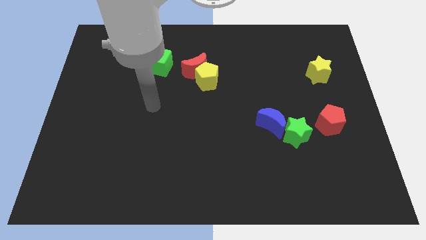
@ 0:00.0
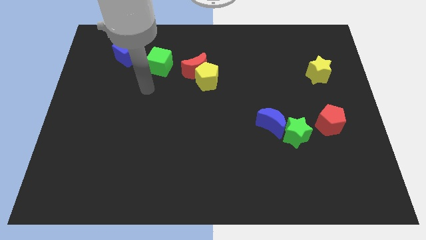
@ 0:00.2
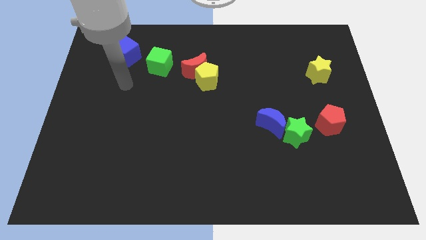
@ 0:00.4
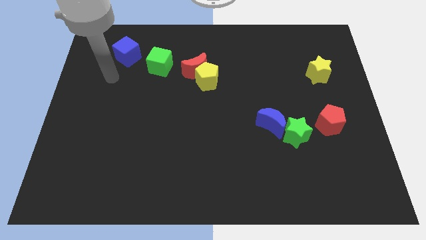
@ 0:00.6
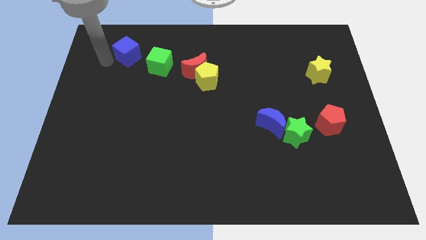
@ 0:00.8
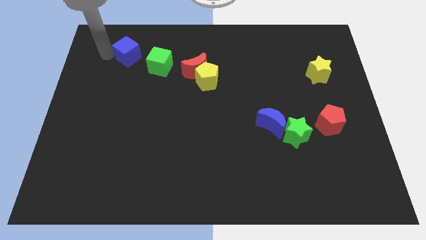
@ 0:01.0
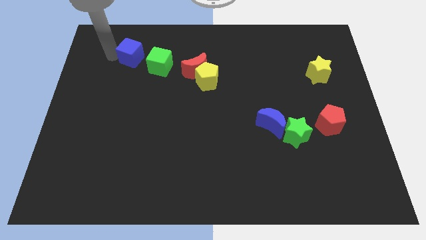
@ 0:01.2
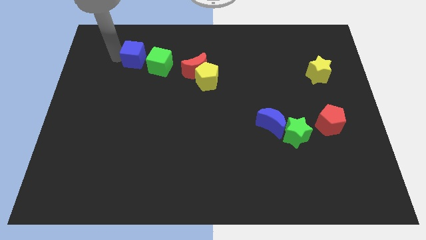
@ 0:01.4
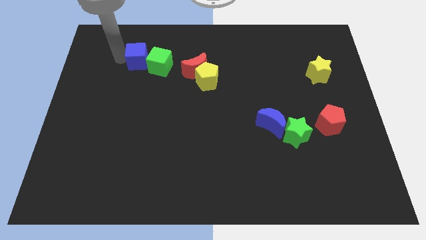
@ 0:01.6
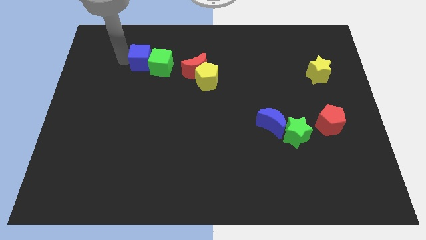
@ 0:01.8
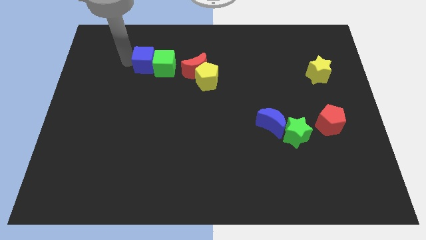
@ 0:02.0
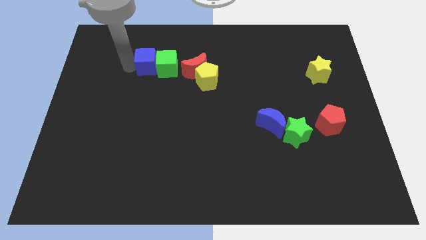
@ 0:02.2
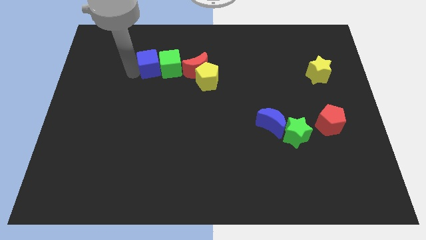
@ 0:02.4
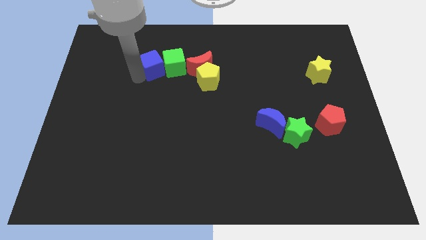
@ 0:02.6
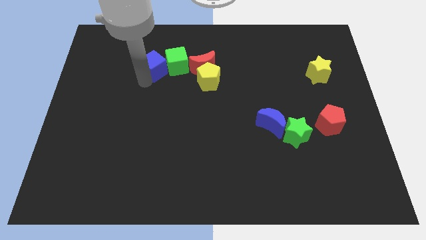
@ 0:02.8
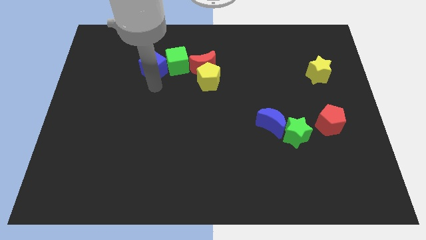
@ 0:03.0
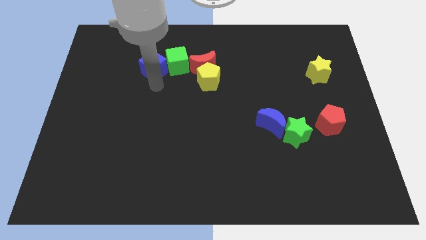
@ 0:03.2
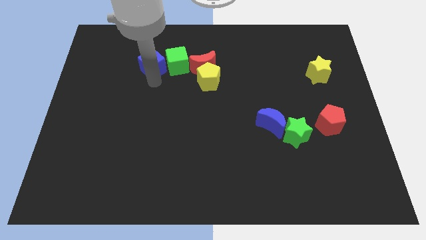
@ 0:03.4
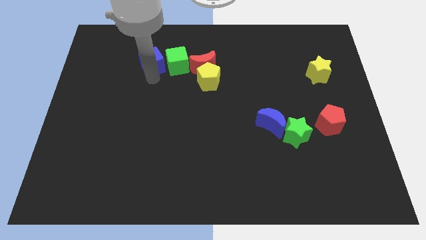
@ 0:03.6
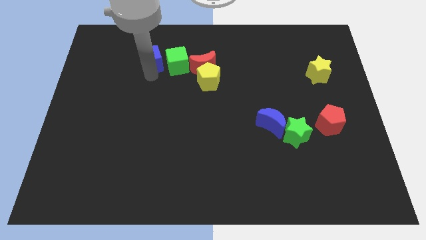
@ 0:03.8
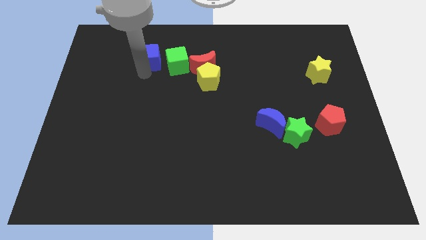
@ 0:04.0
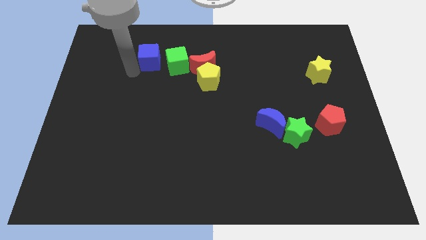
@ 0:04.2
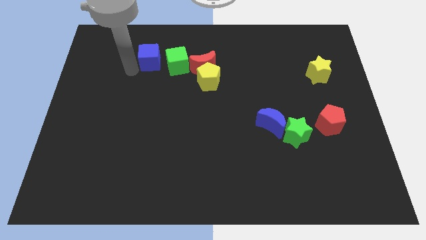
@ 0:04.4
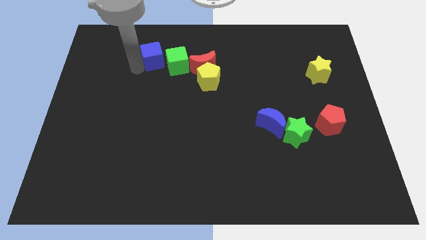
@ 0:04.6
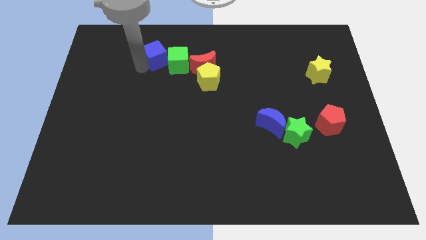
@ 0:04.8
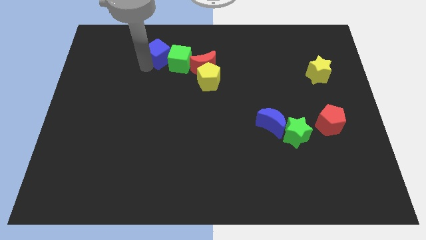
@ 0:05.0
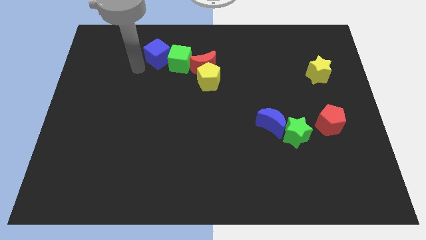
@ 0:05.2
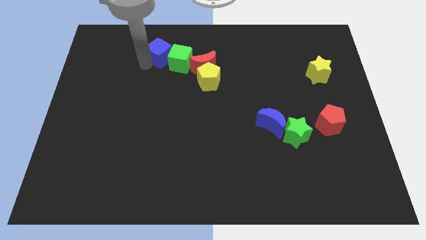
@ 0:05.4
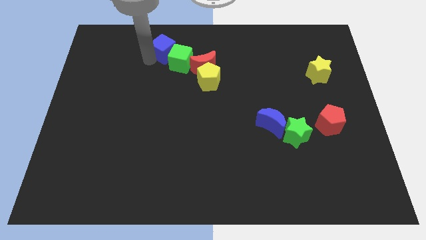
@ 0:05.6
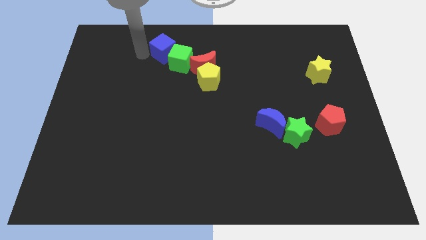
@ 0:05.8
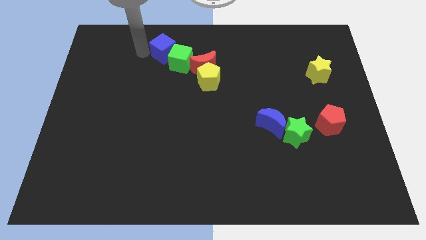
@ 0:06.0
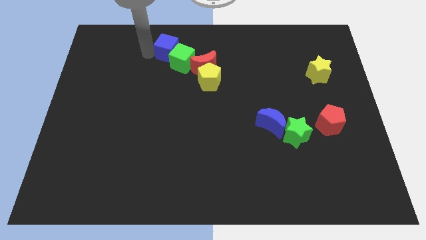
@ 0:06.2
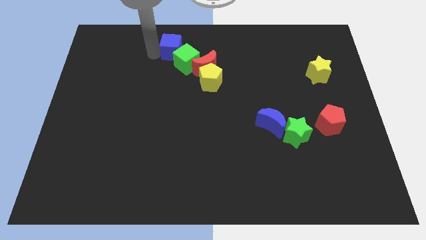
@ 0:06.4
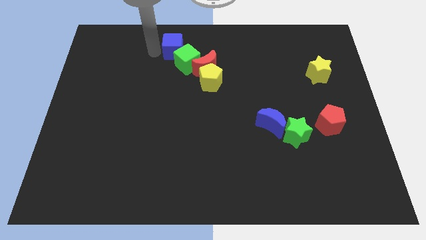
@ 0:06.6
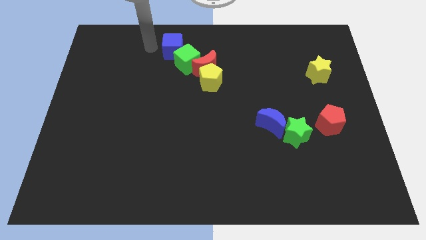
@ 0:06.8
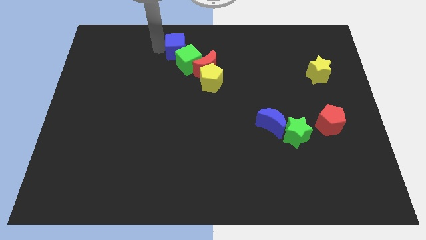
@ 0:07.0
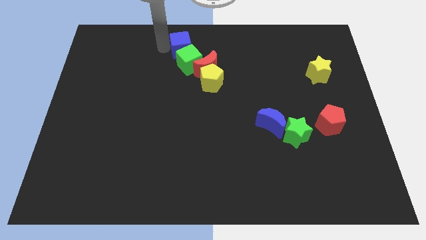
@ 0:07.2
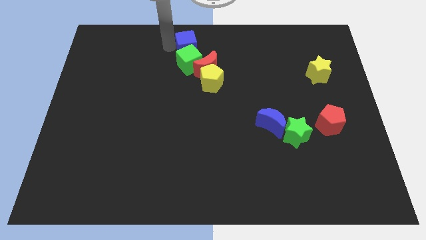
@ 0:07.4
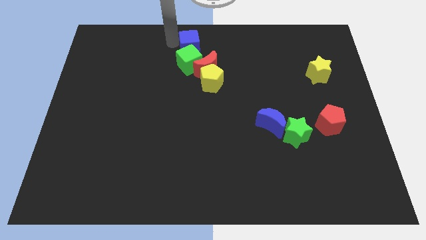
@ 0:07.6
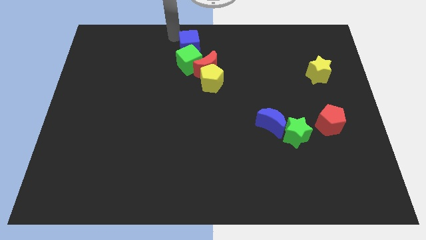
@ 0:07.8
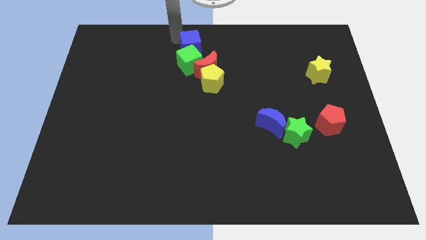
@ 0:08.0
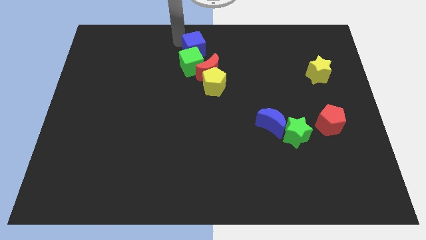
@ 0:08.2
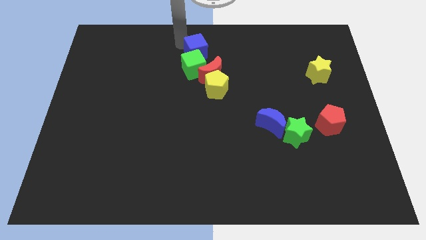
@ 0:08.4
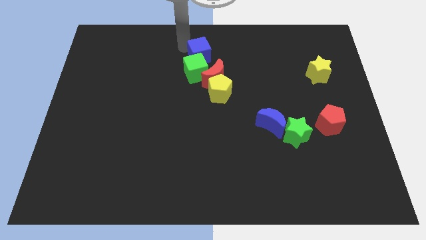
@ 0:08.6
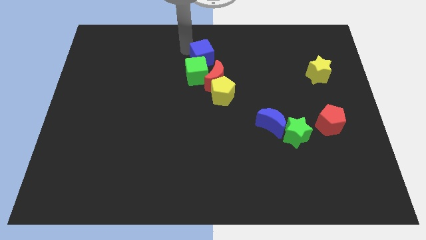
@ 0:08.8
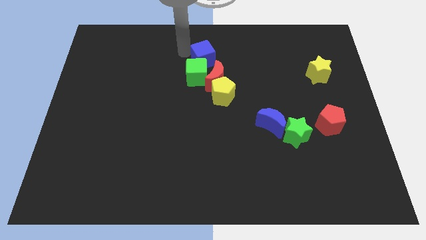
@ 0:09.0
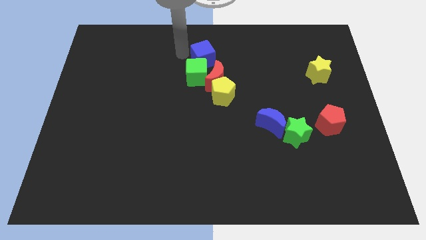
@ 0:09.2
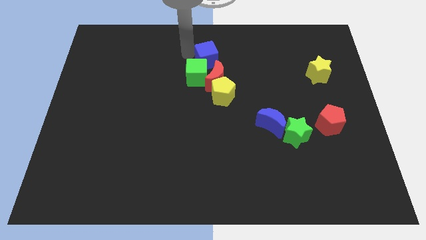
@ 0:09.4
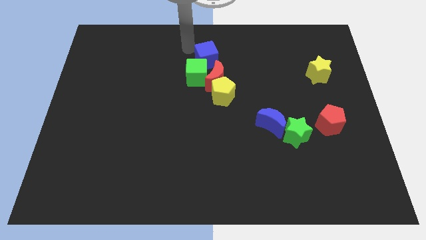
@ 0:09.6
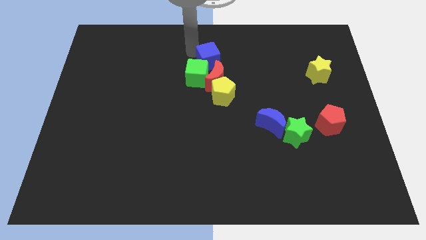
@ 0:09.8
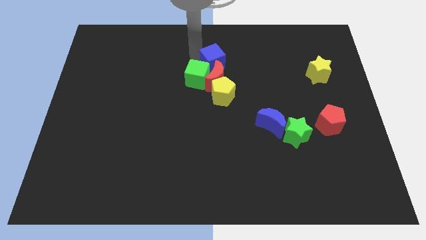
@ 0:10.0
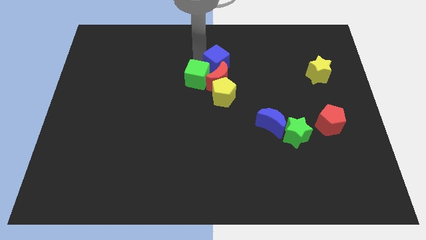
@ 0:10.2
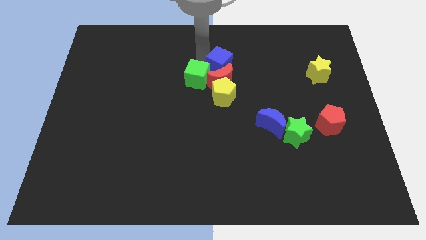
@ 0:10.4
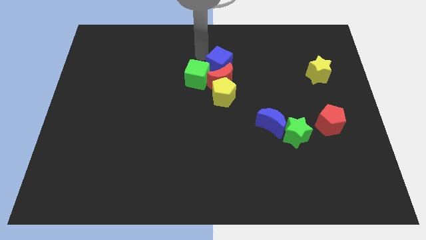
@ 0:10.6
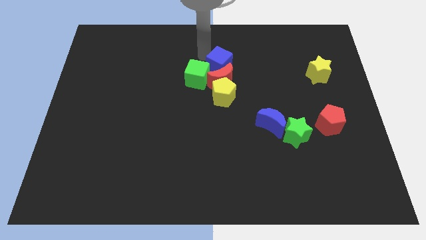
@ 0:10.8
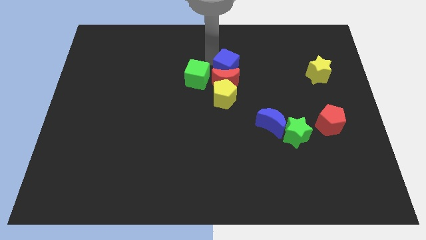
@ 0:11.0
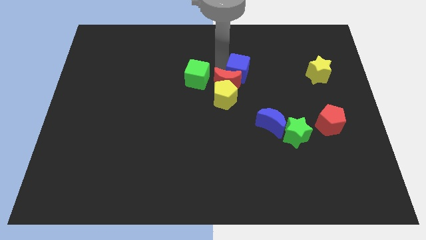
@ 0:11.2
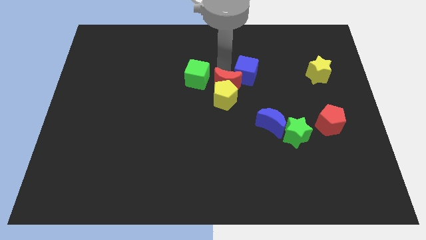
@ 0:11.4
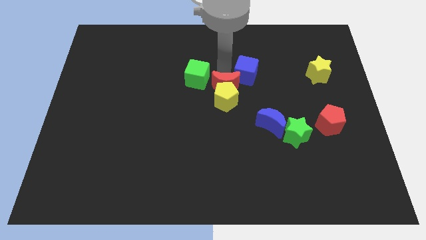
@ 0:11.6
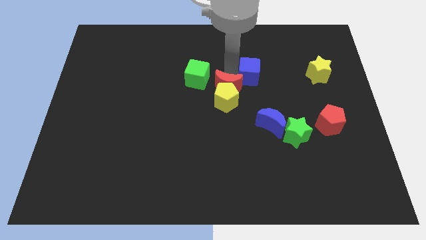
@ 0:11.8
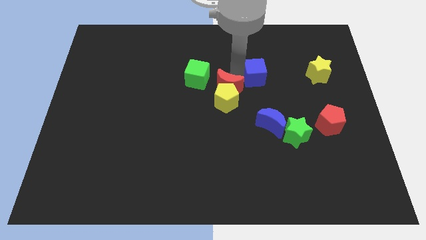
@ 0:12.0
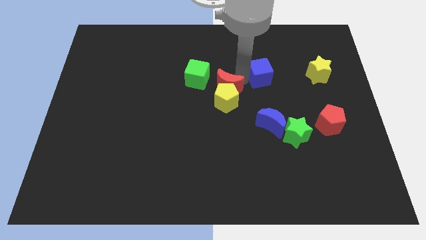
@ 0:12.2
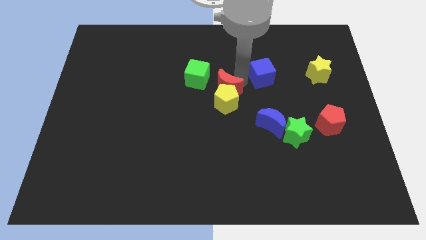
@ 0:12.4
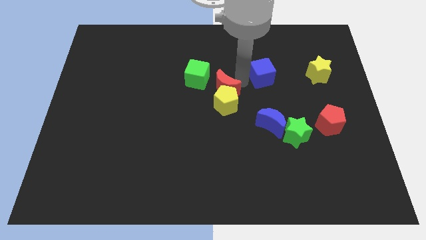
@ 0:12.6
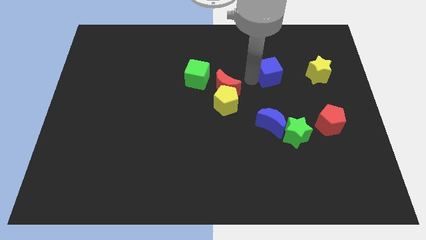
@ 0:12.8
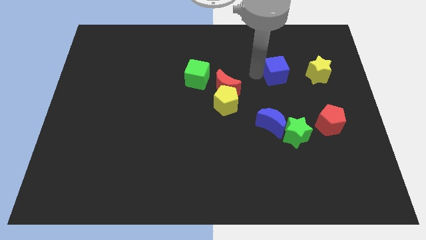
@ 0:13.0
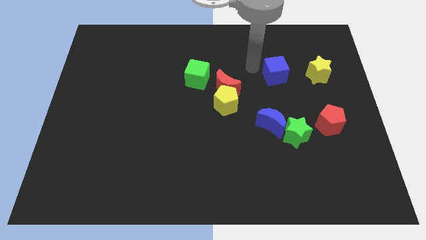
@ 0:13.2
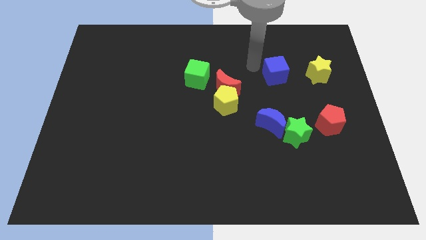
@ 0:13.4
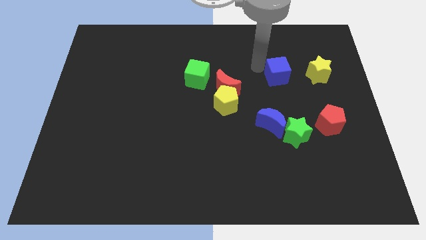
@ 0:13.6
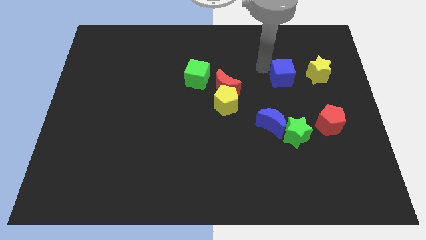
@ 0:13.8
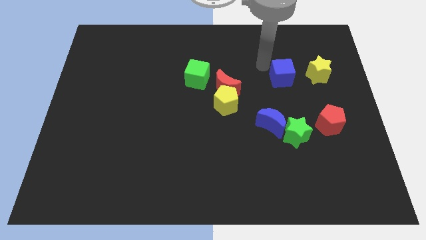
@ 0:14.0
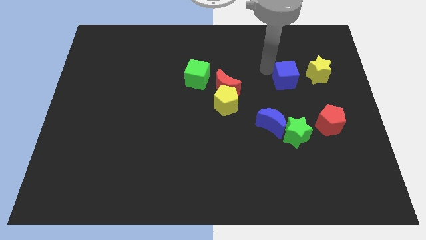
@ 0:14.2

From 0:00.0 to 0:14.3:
put the blue cube to the bottom left side of the yellow star
